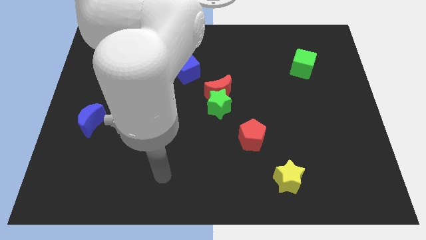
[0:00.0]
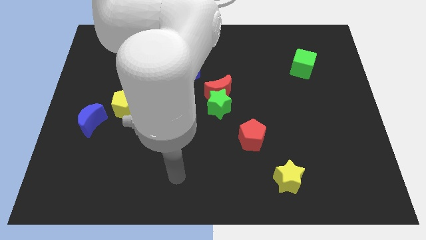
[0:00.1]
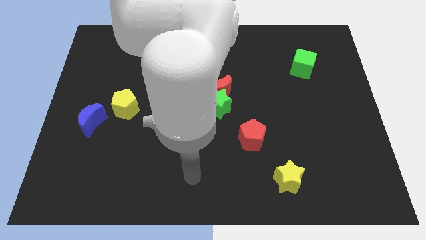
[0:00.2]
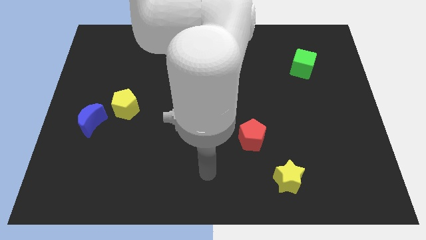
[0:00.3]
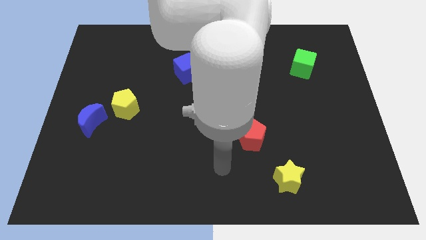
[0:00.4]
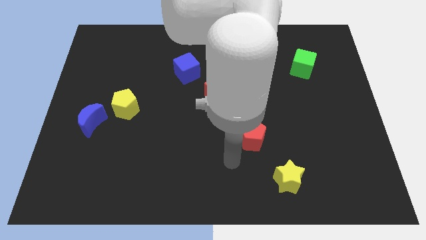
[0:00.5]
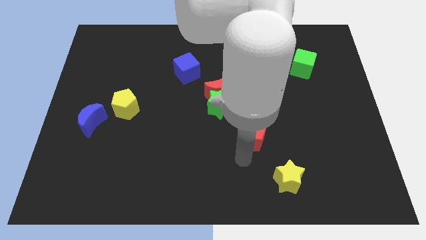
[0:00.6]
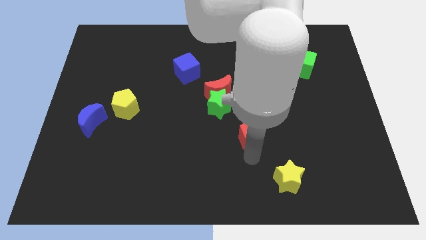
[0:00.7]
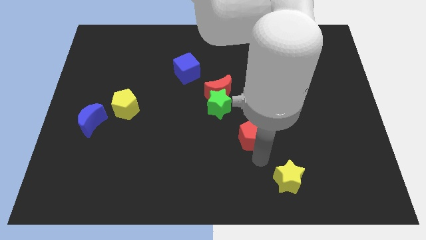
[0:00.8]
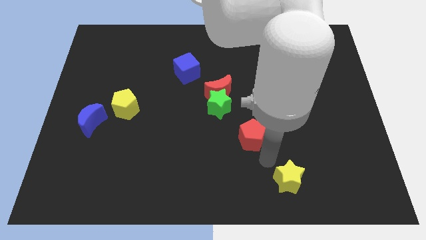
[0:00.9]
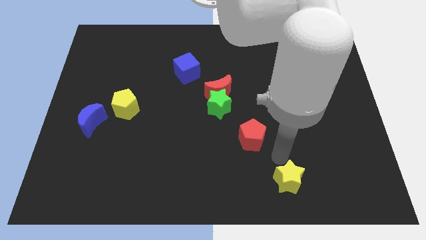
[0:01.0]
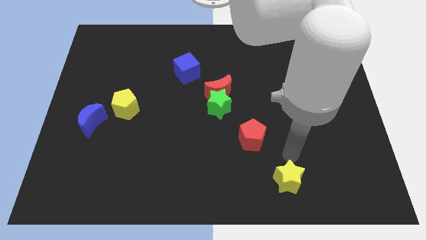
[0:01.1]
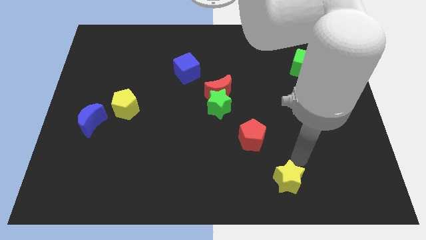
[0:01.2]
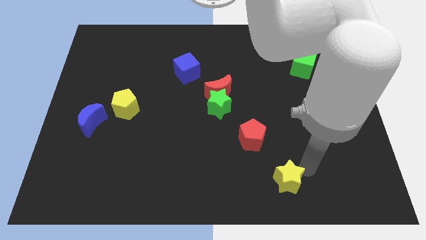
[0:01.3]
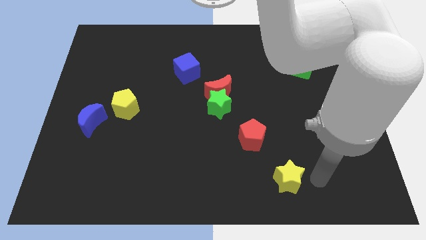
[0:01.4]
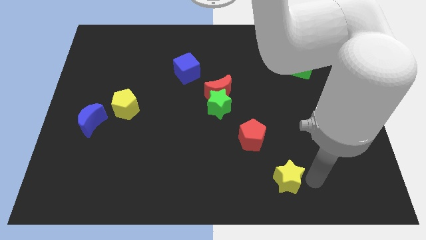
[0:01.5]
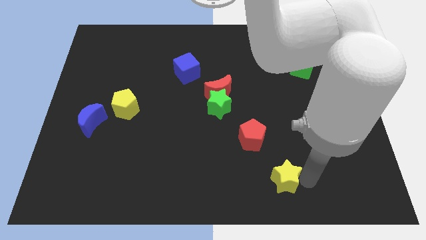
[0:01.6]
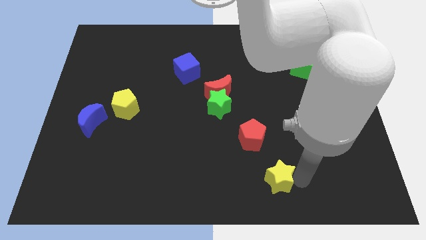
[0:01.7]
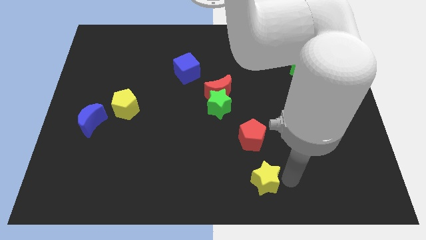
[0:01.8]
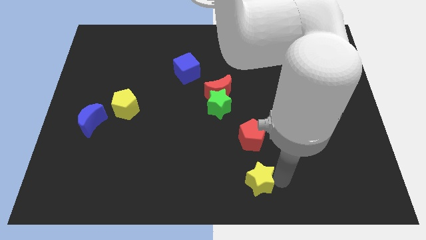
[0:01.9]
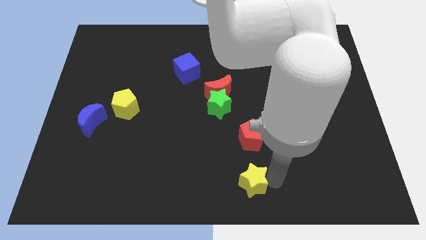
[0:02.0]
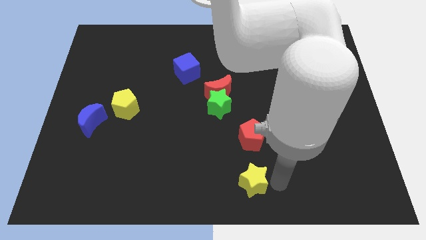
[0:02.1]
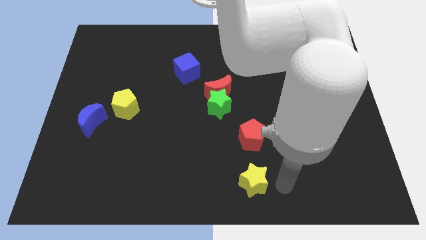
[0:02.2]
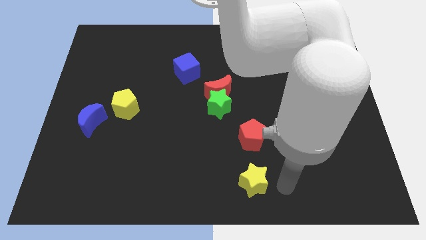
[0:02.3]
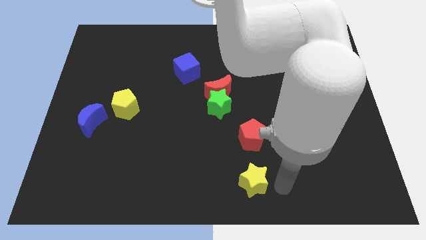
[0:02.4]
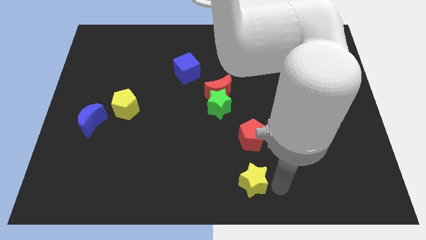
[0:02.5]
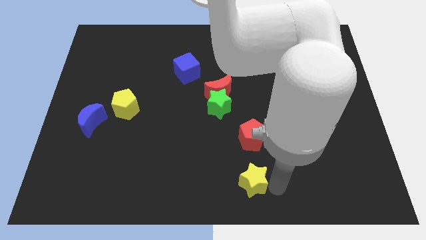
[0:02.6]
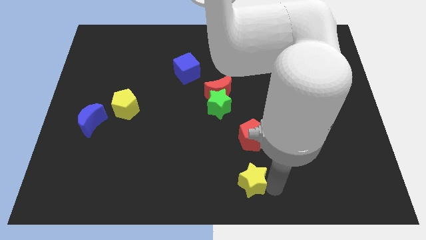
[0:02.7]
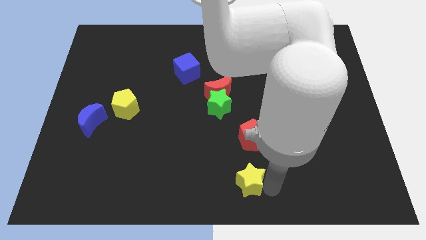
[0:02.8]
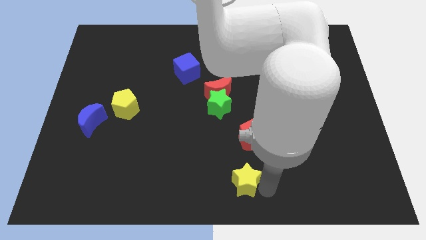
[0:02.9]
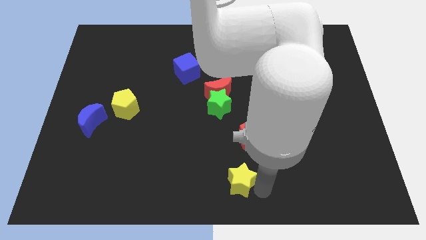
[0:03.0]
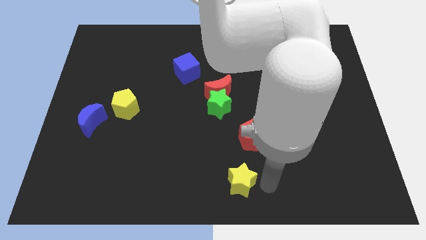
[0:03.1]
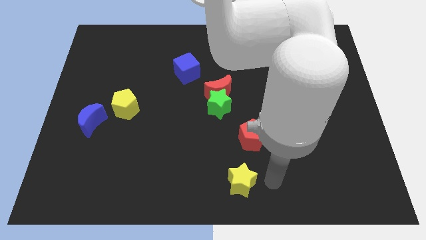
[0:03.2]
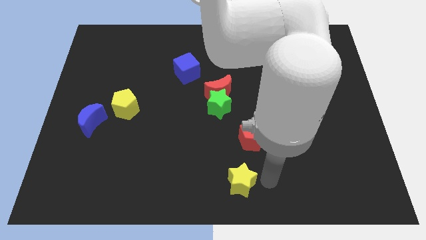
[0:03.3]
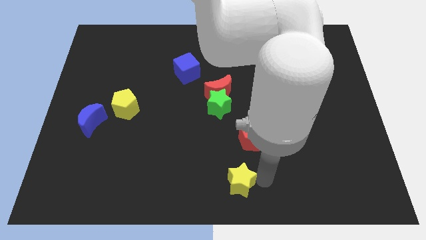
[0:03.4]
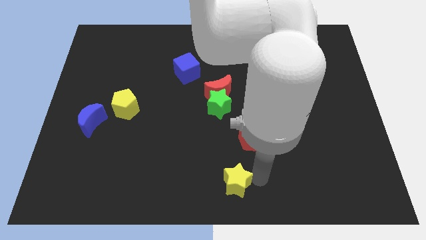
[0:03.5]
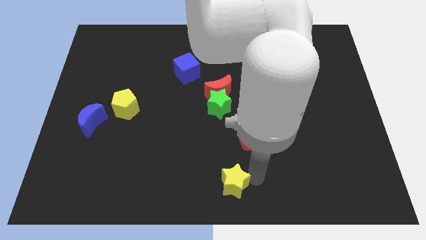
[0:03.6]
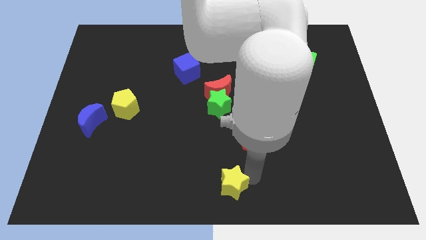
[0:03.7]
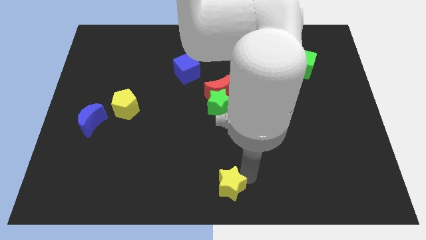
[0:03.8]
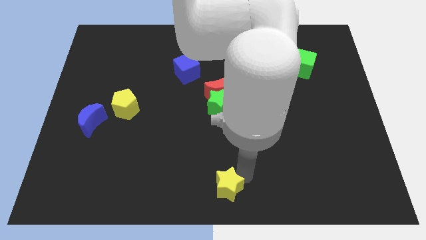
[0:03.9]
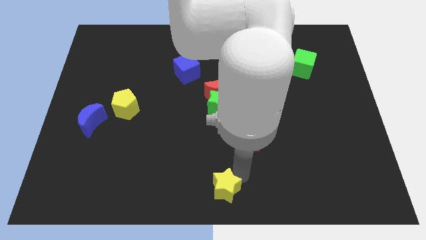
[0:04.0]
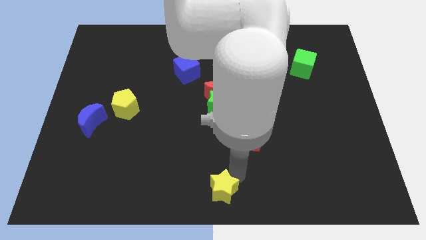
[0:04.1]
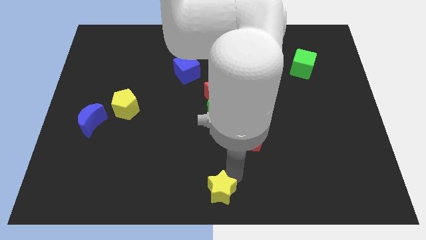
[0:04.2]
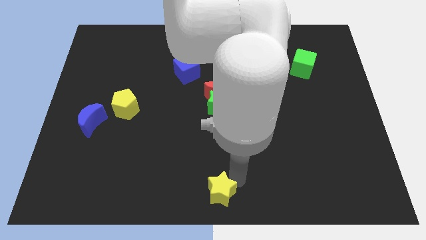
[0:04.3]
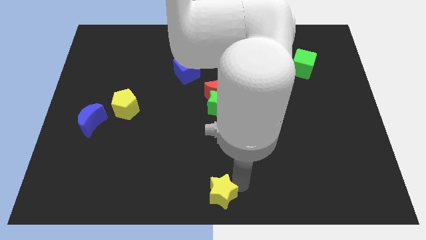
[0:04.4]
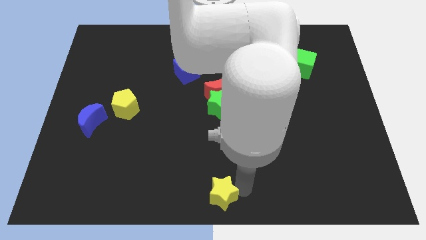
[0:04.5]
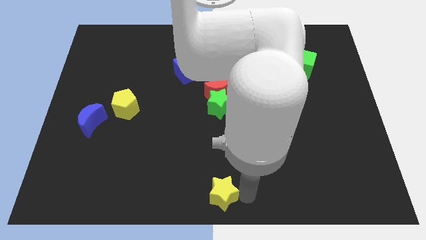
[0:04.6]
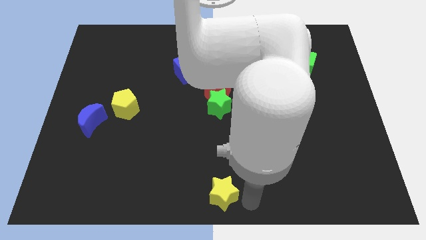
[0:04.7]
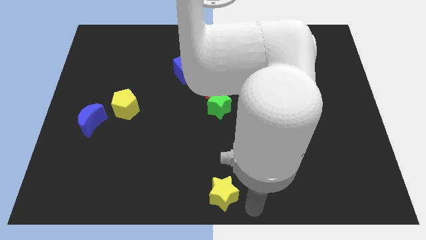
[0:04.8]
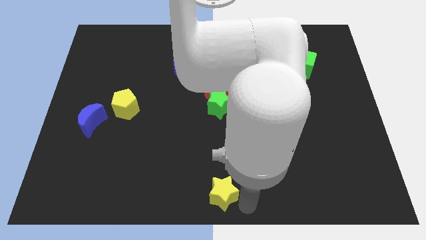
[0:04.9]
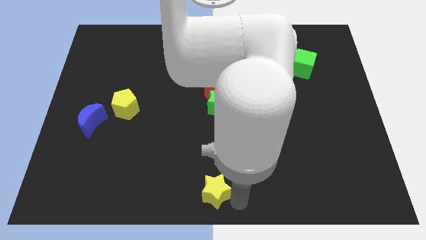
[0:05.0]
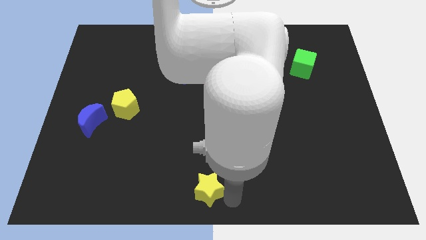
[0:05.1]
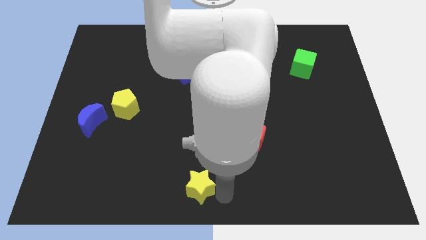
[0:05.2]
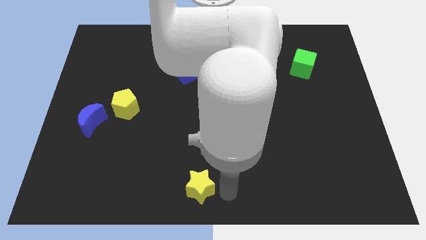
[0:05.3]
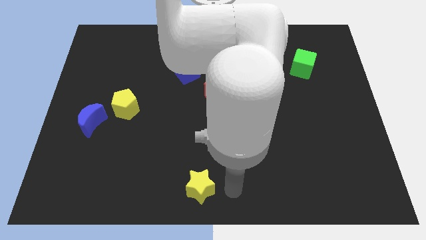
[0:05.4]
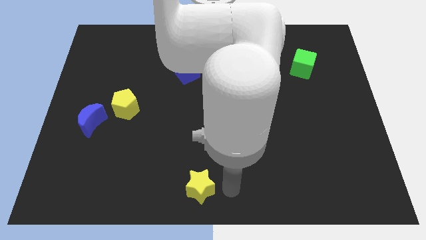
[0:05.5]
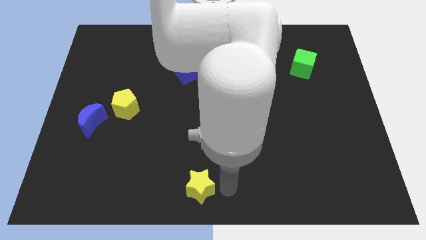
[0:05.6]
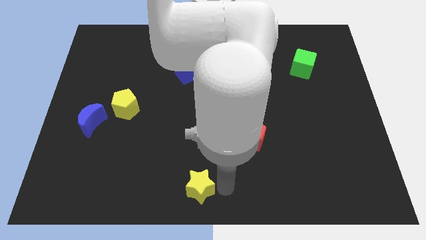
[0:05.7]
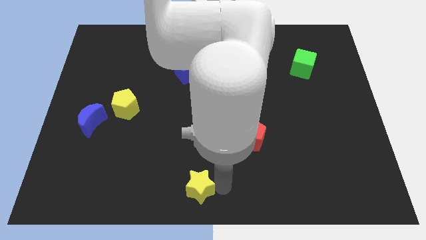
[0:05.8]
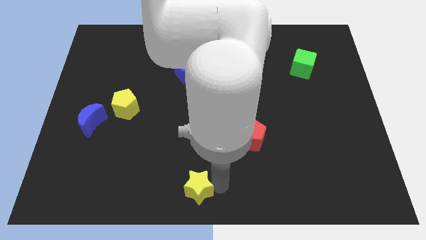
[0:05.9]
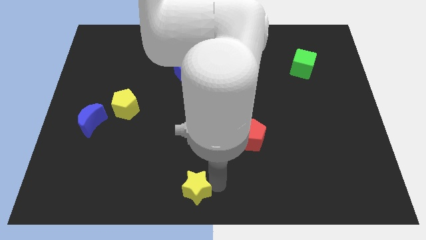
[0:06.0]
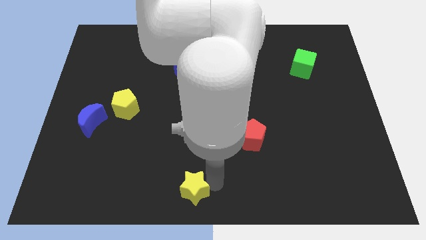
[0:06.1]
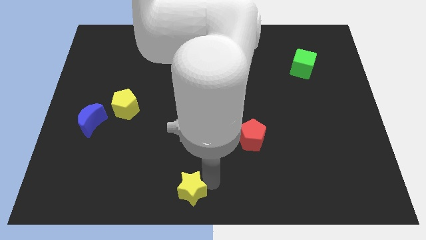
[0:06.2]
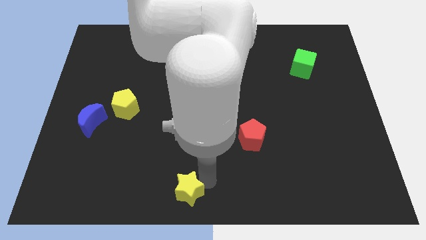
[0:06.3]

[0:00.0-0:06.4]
slide the yellow star to the left

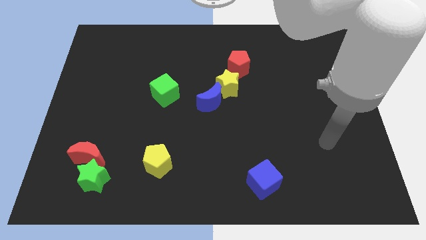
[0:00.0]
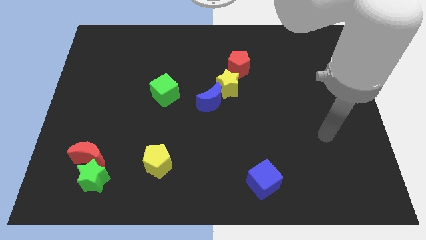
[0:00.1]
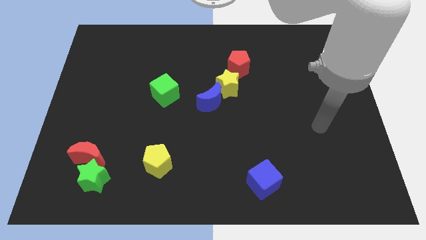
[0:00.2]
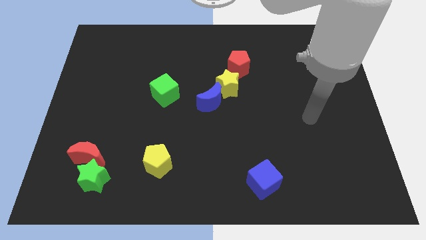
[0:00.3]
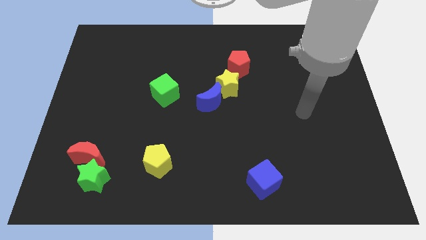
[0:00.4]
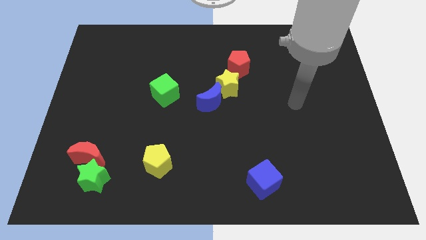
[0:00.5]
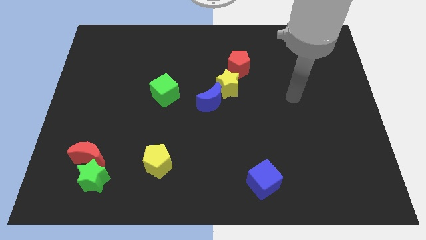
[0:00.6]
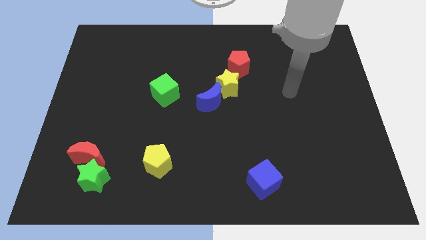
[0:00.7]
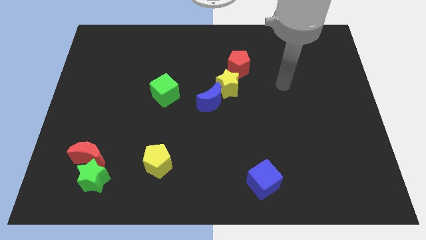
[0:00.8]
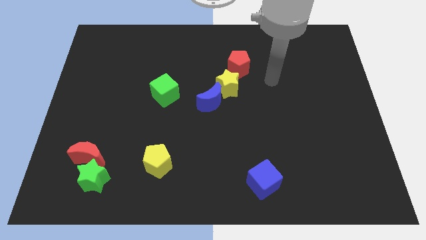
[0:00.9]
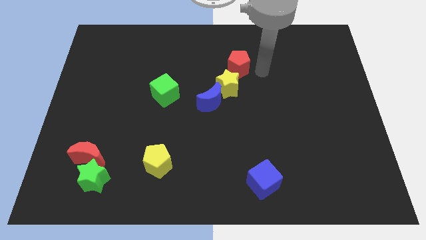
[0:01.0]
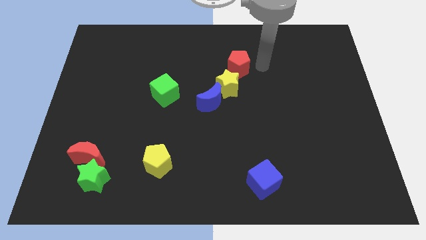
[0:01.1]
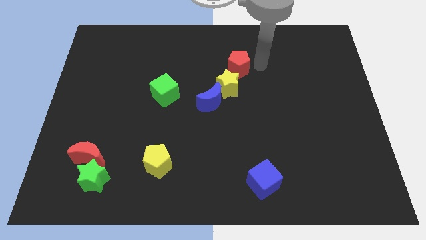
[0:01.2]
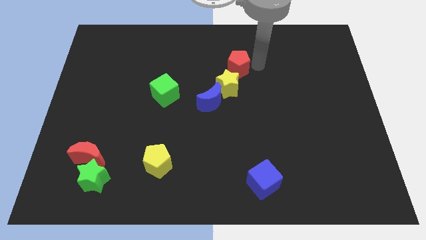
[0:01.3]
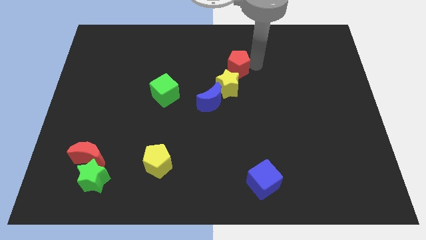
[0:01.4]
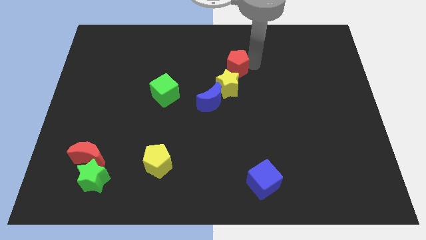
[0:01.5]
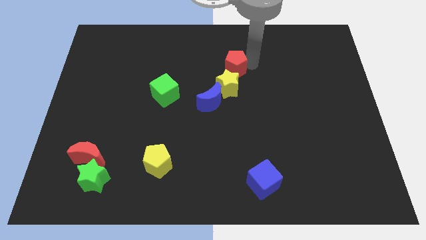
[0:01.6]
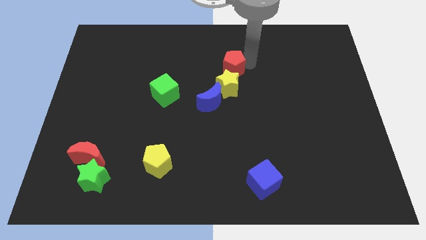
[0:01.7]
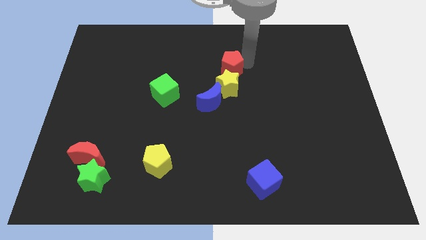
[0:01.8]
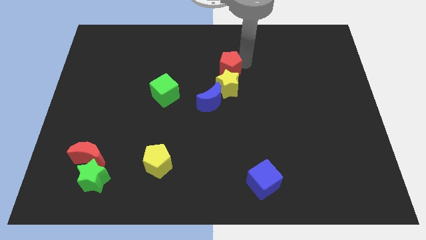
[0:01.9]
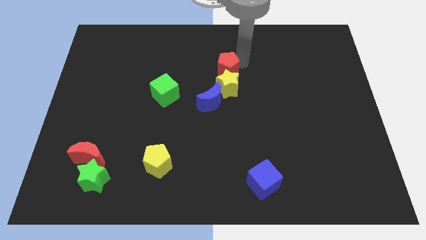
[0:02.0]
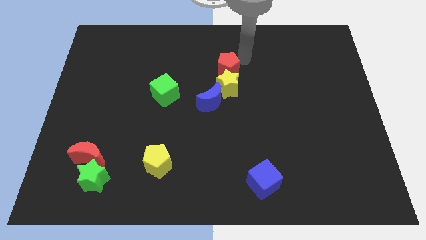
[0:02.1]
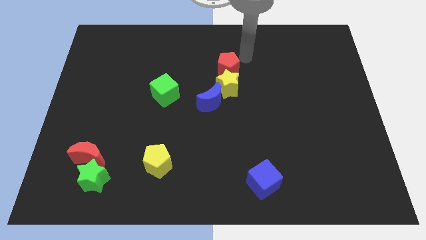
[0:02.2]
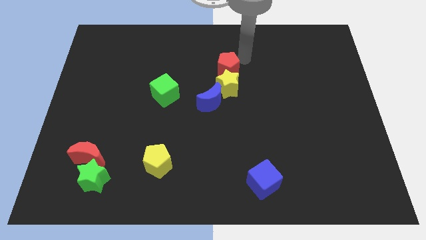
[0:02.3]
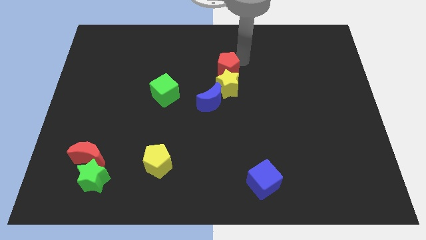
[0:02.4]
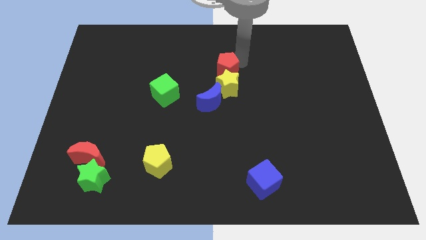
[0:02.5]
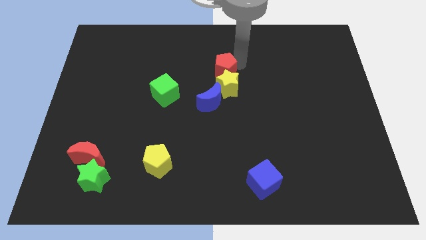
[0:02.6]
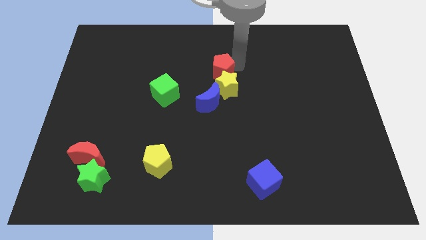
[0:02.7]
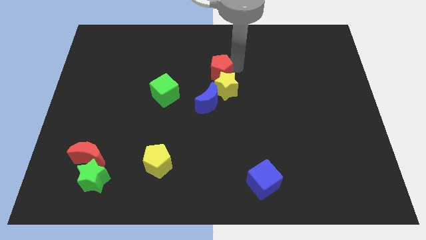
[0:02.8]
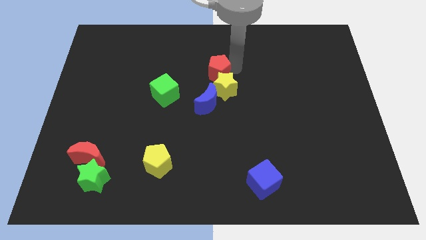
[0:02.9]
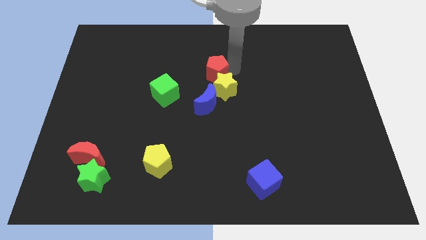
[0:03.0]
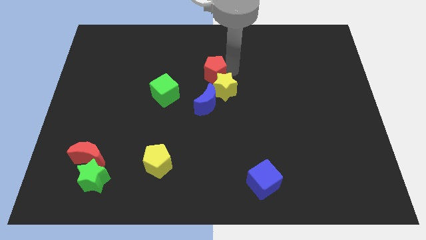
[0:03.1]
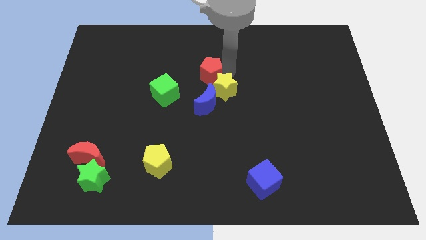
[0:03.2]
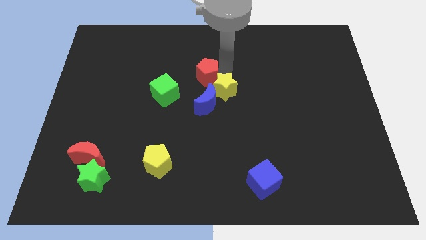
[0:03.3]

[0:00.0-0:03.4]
slide the red pentagon a little downwards and to the left
